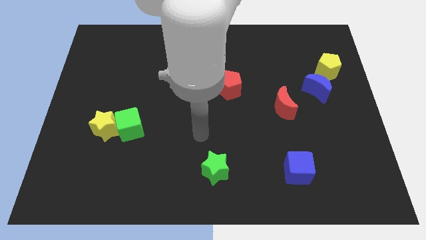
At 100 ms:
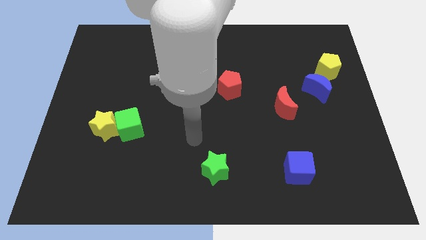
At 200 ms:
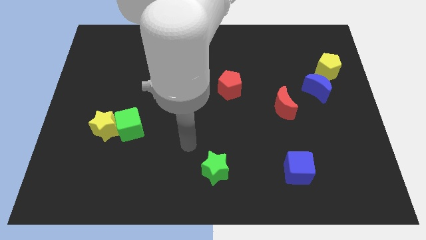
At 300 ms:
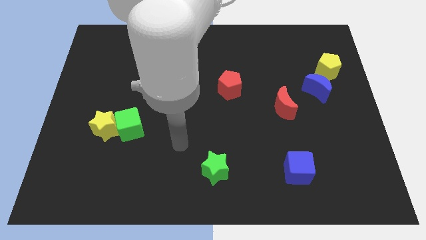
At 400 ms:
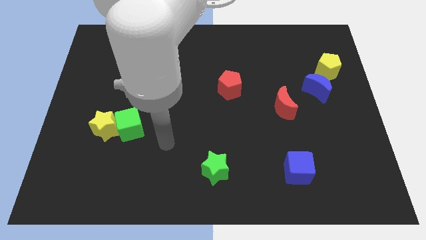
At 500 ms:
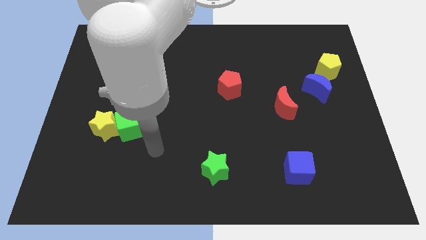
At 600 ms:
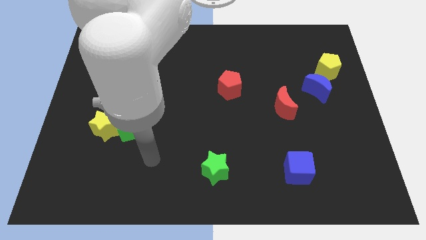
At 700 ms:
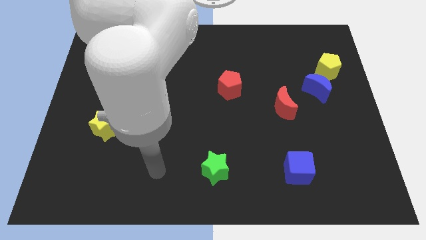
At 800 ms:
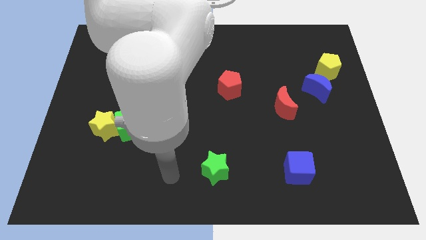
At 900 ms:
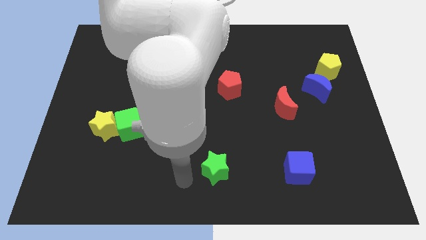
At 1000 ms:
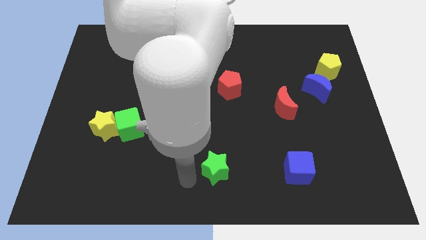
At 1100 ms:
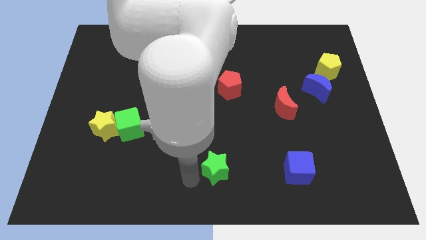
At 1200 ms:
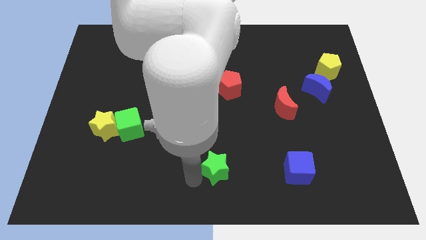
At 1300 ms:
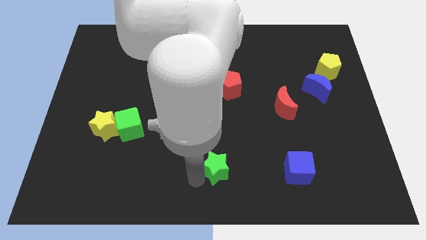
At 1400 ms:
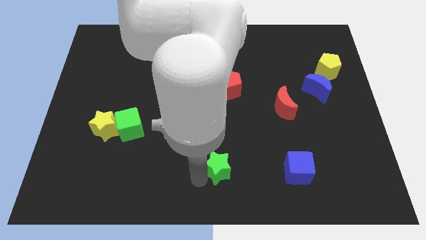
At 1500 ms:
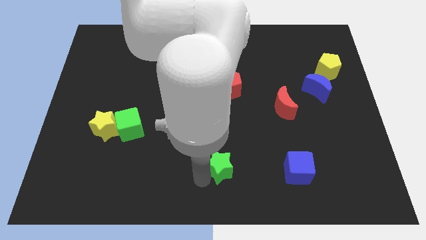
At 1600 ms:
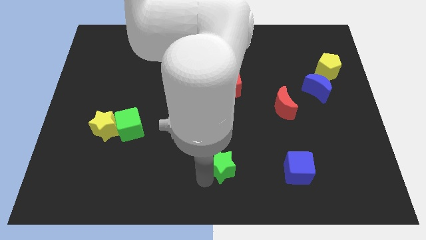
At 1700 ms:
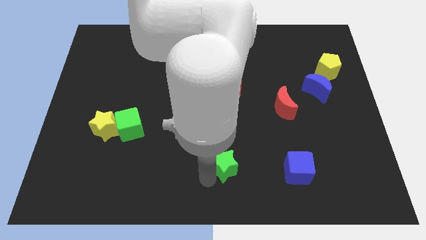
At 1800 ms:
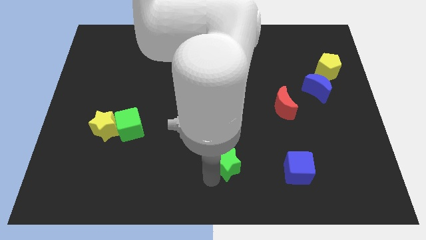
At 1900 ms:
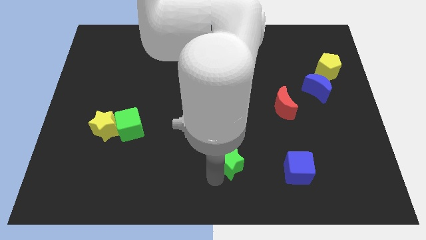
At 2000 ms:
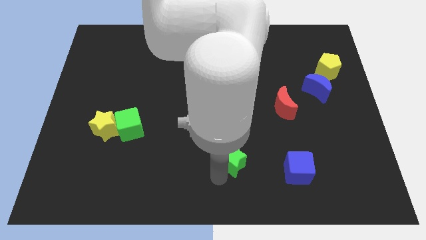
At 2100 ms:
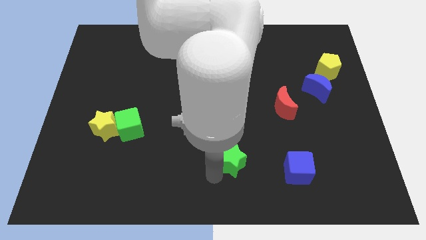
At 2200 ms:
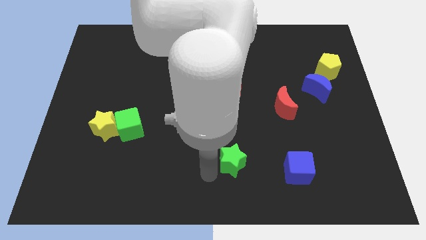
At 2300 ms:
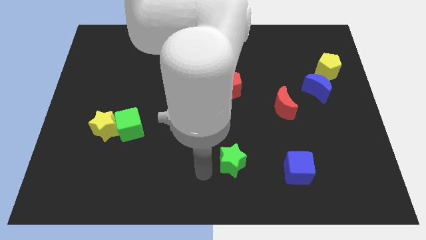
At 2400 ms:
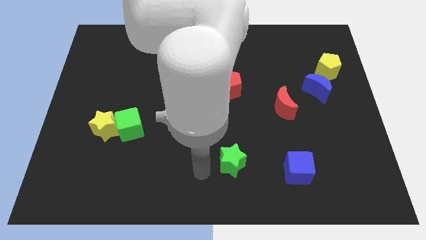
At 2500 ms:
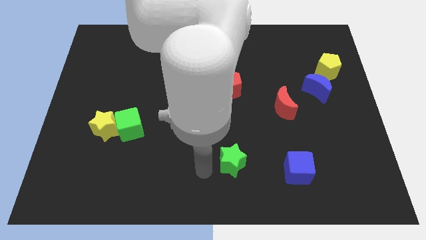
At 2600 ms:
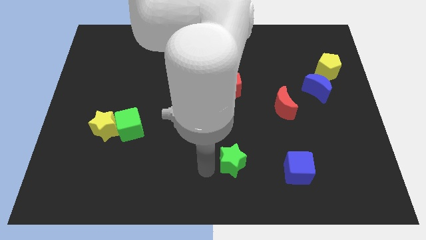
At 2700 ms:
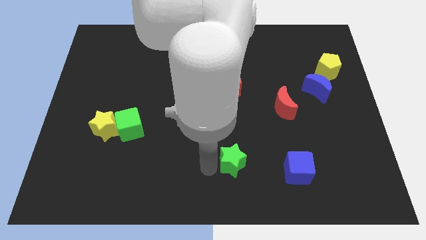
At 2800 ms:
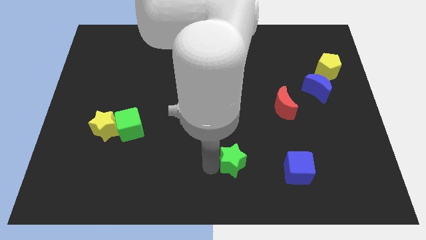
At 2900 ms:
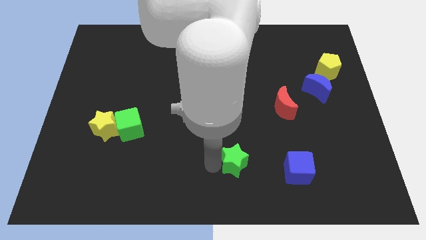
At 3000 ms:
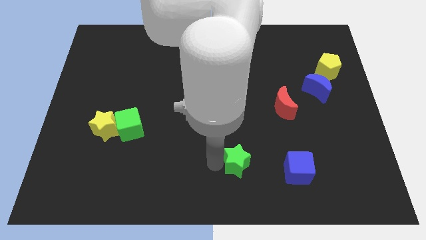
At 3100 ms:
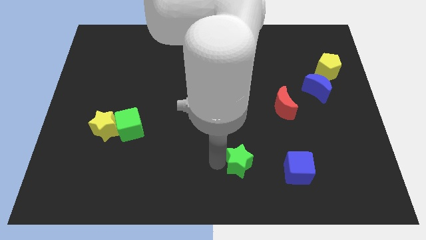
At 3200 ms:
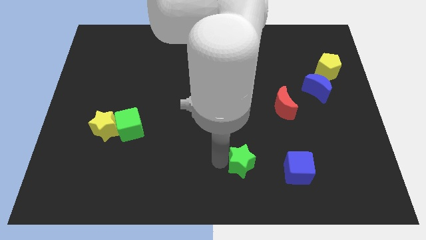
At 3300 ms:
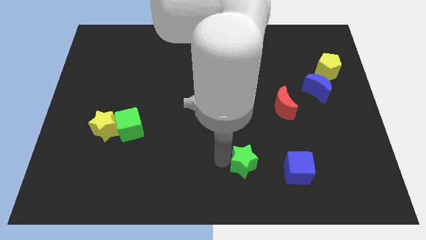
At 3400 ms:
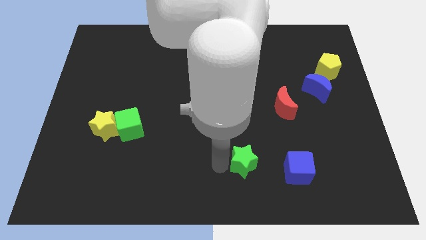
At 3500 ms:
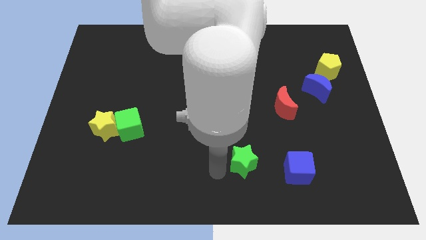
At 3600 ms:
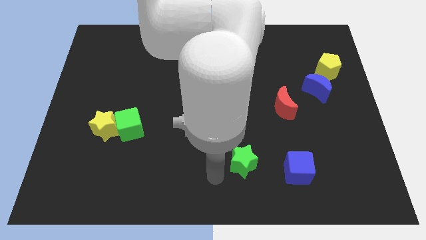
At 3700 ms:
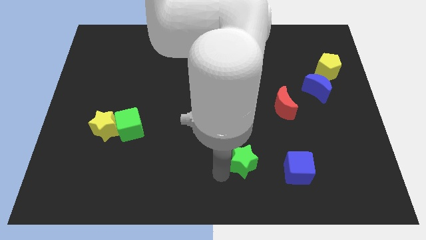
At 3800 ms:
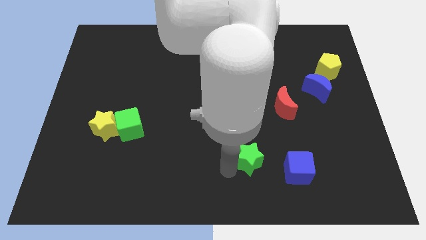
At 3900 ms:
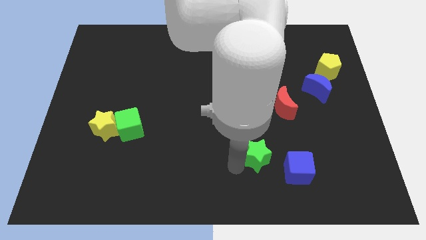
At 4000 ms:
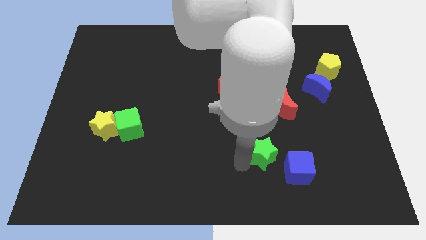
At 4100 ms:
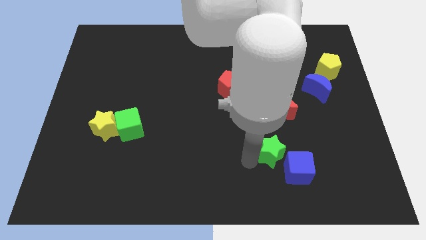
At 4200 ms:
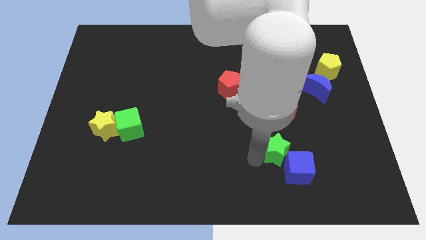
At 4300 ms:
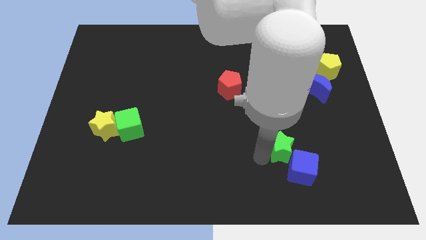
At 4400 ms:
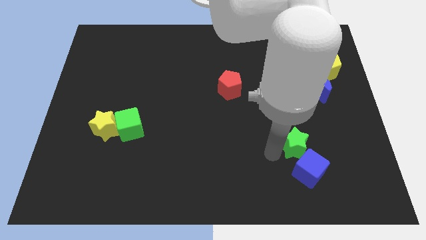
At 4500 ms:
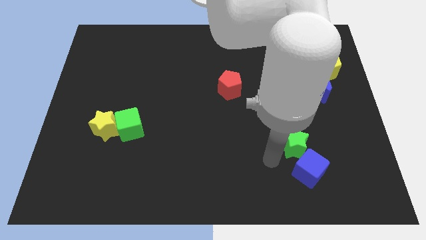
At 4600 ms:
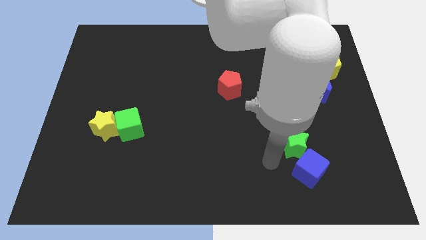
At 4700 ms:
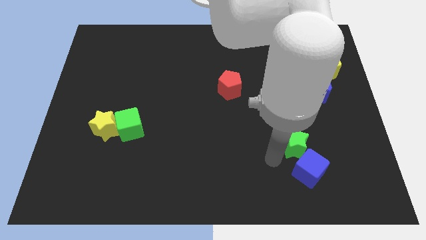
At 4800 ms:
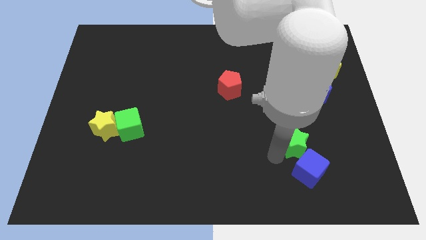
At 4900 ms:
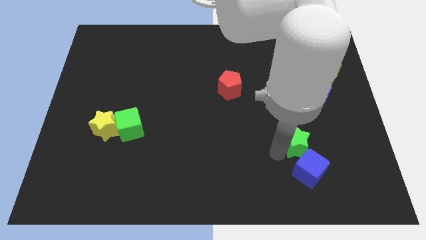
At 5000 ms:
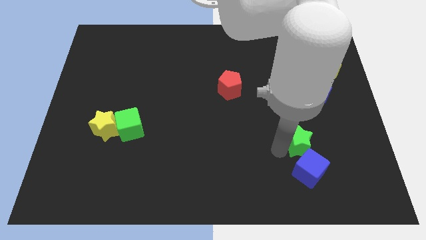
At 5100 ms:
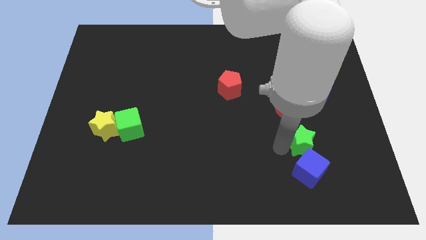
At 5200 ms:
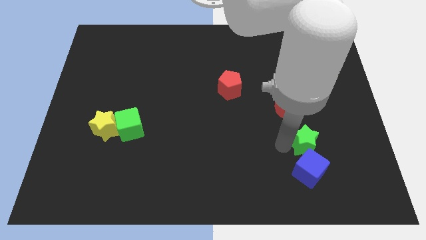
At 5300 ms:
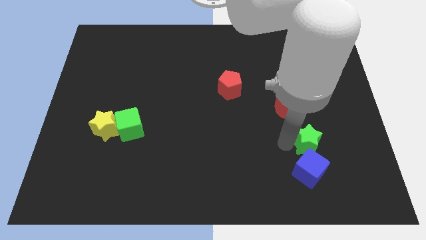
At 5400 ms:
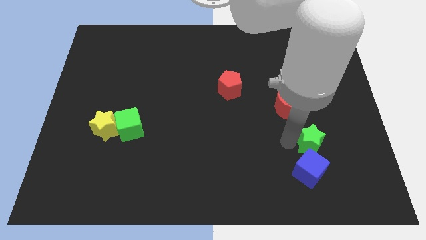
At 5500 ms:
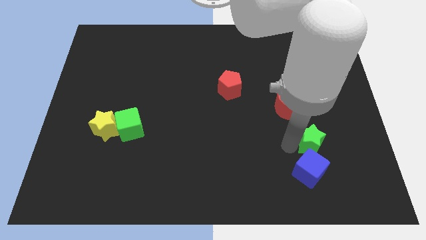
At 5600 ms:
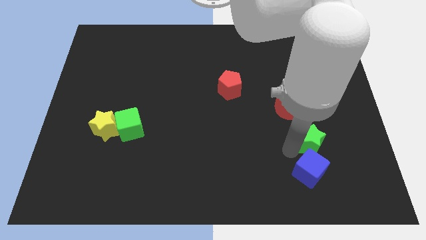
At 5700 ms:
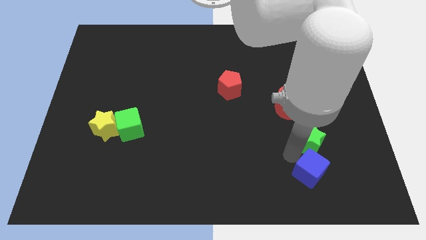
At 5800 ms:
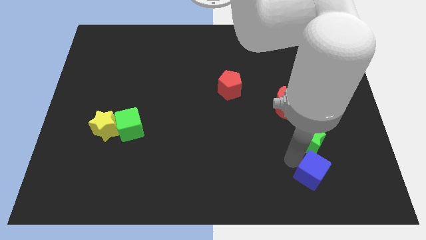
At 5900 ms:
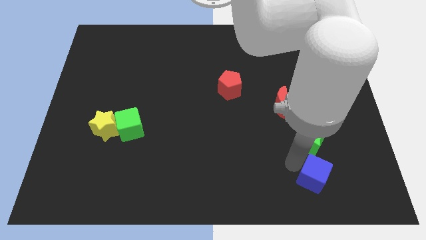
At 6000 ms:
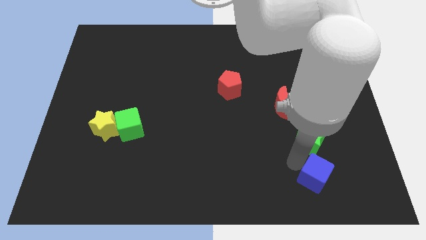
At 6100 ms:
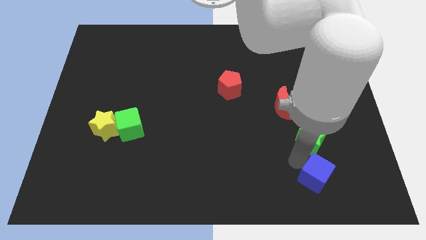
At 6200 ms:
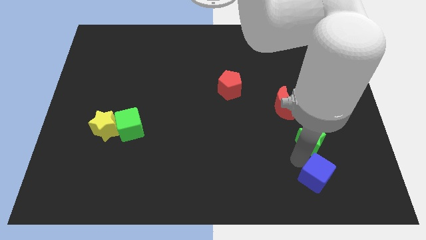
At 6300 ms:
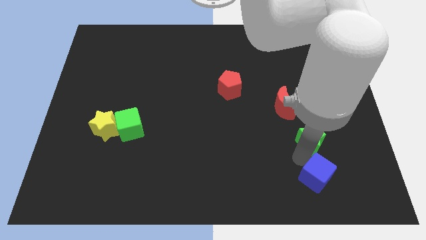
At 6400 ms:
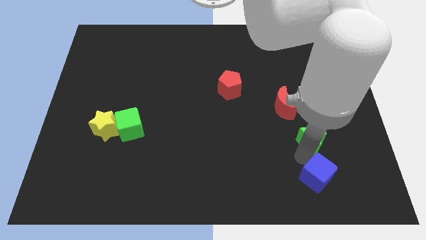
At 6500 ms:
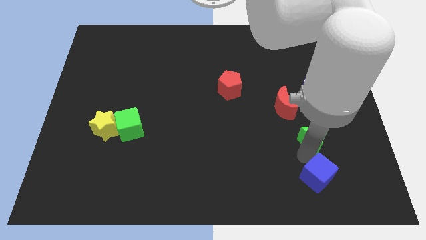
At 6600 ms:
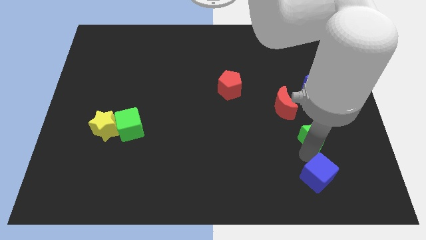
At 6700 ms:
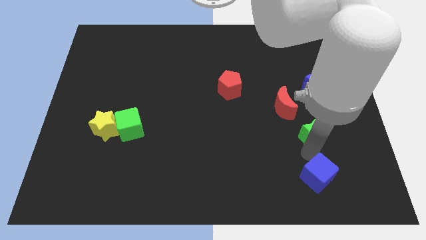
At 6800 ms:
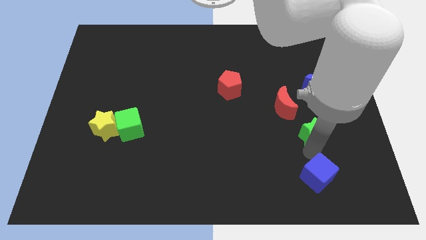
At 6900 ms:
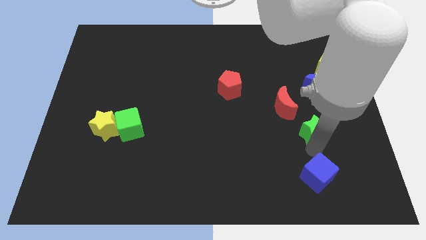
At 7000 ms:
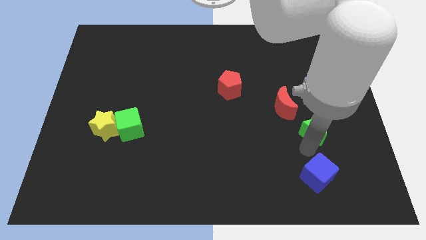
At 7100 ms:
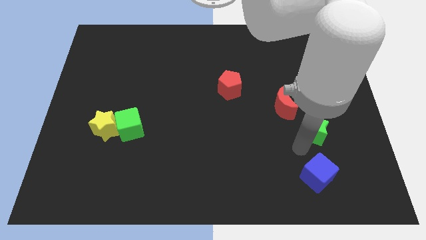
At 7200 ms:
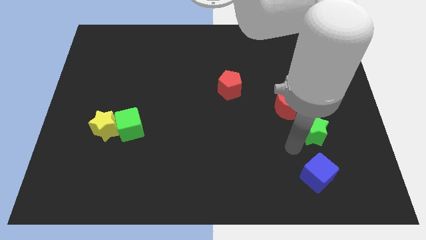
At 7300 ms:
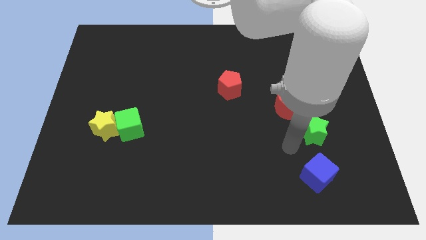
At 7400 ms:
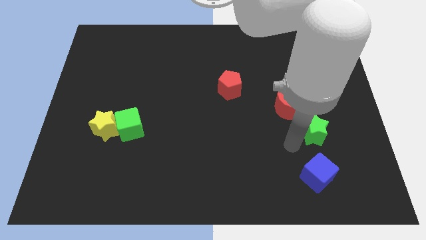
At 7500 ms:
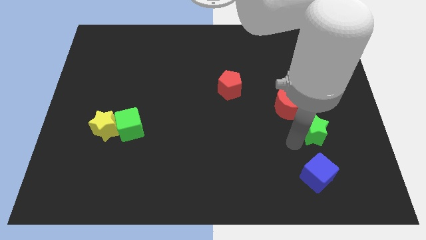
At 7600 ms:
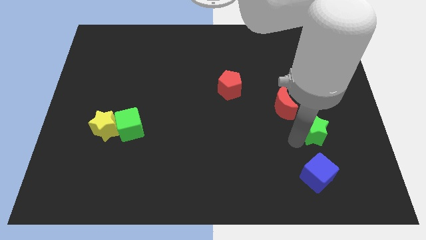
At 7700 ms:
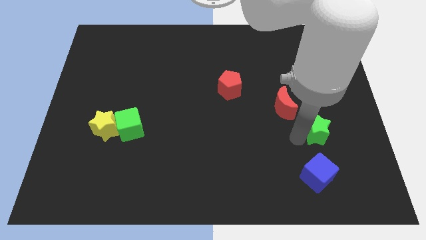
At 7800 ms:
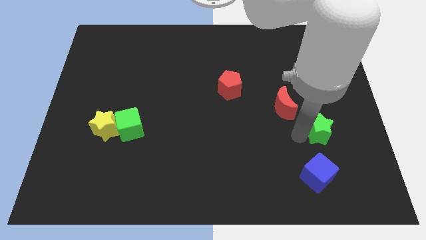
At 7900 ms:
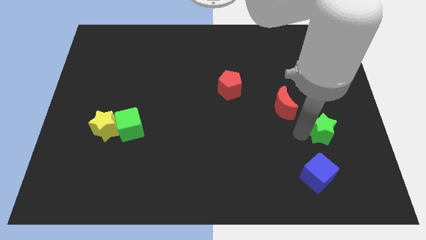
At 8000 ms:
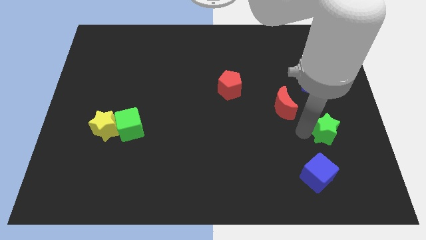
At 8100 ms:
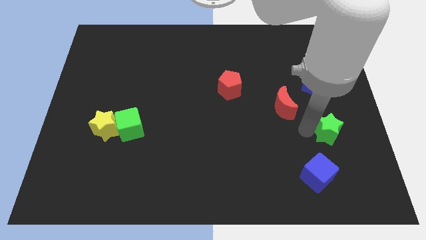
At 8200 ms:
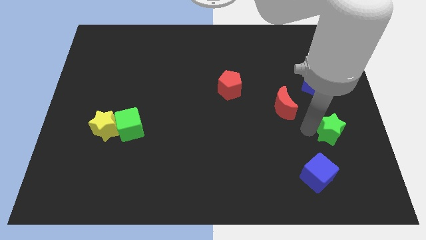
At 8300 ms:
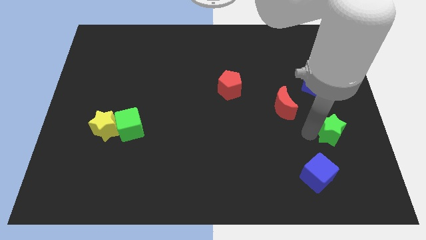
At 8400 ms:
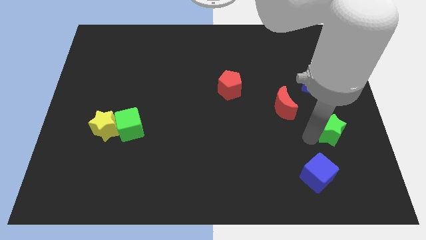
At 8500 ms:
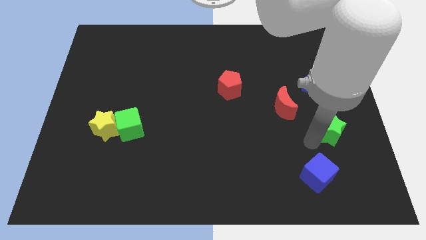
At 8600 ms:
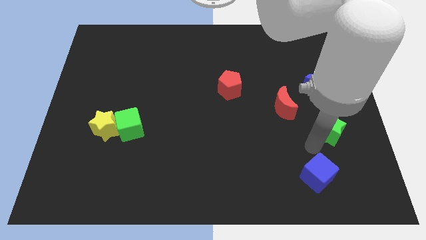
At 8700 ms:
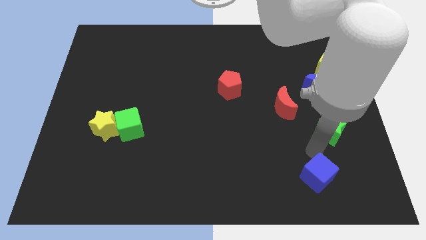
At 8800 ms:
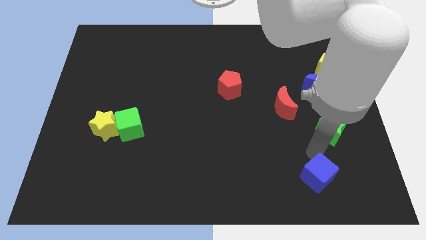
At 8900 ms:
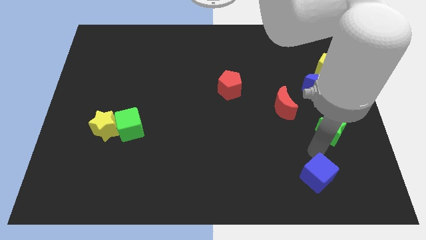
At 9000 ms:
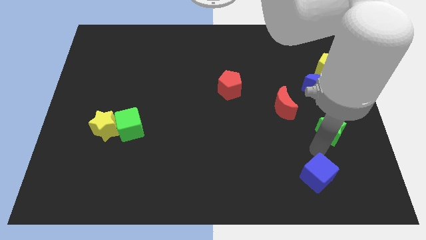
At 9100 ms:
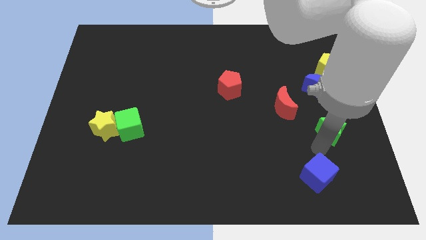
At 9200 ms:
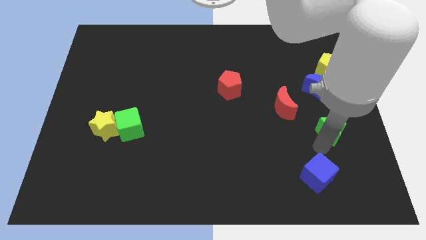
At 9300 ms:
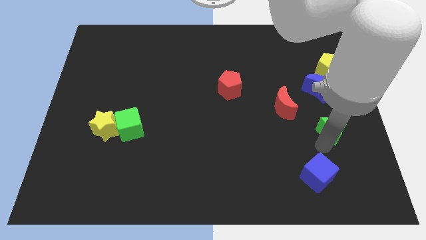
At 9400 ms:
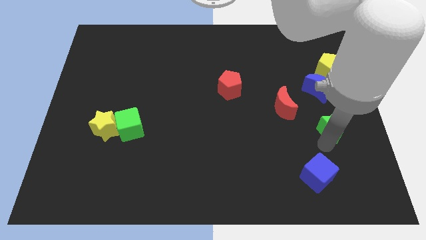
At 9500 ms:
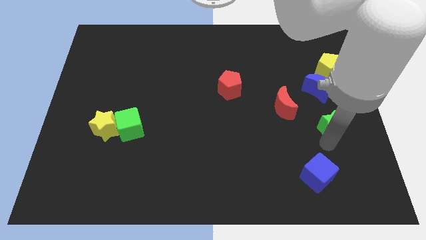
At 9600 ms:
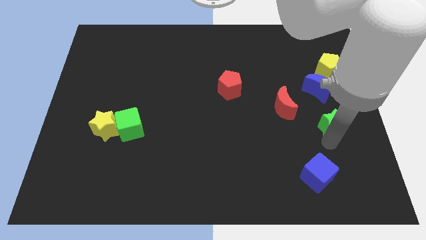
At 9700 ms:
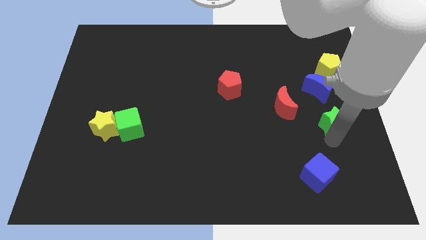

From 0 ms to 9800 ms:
move the green star to the center right
